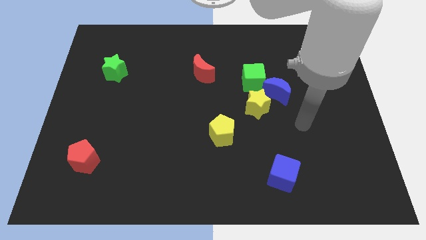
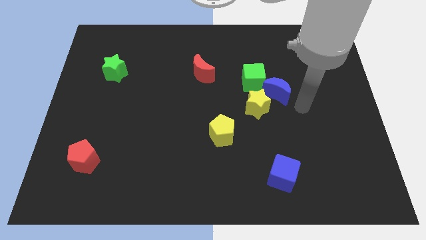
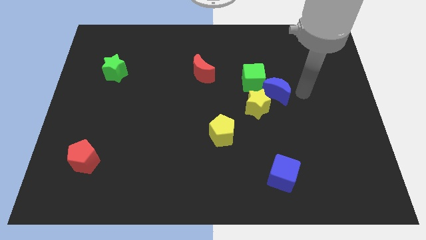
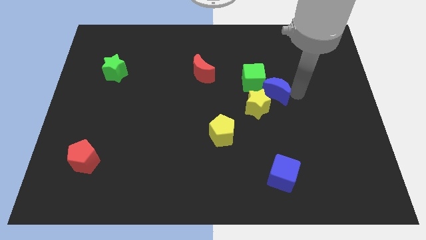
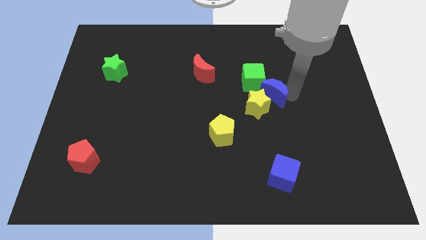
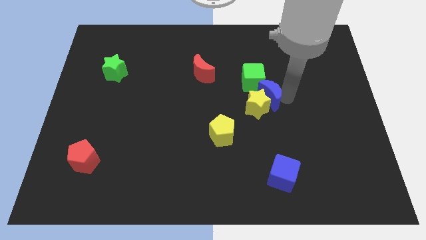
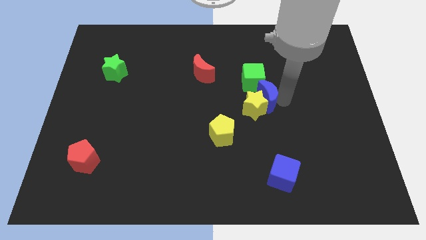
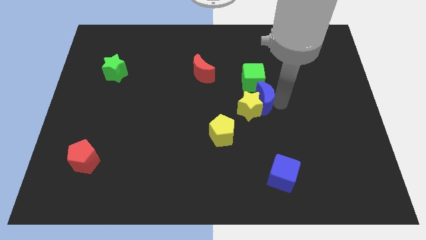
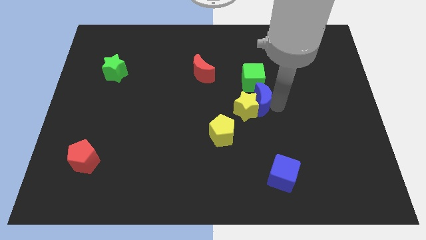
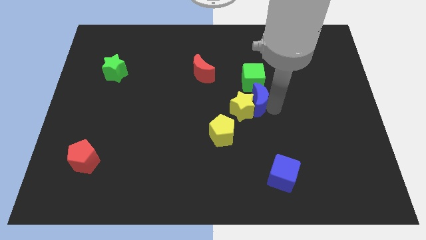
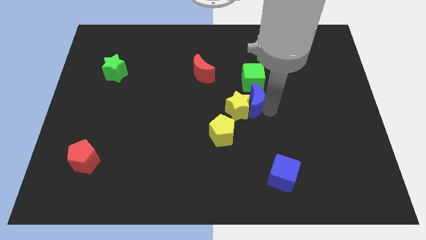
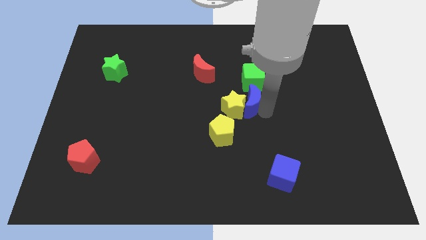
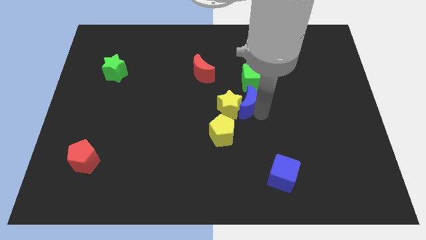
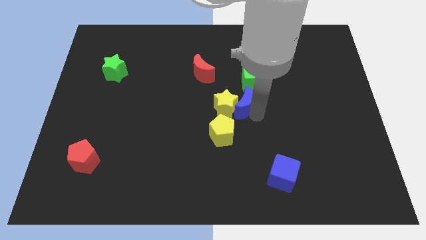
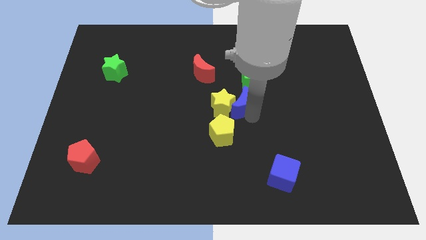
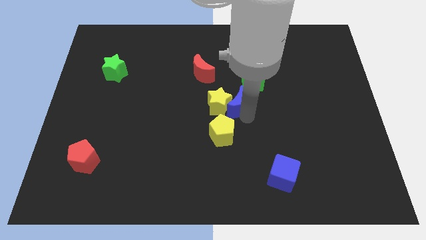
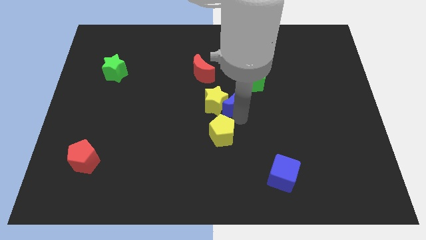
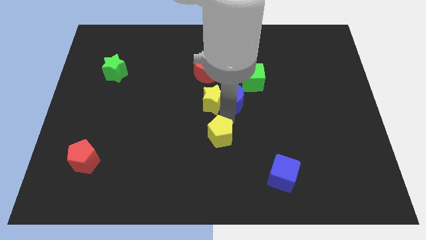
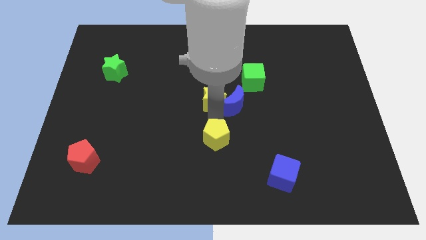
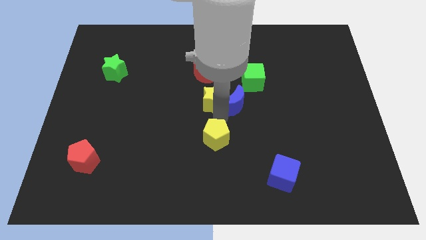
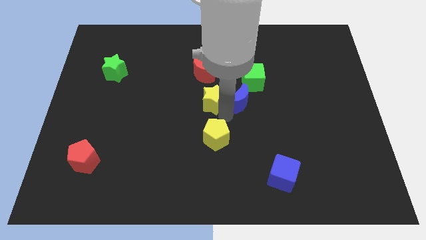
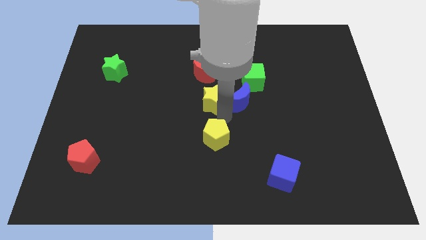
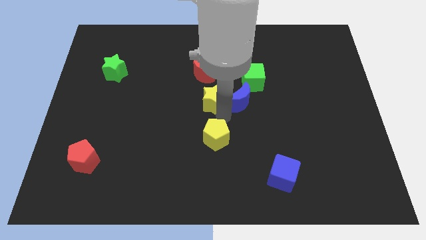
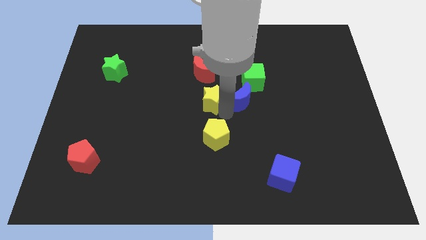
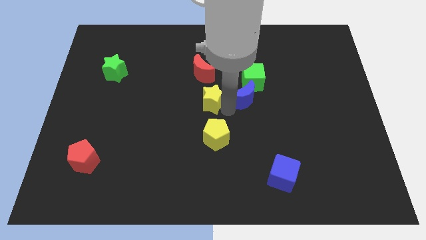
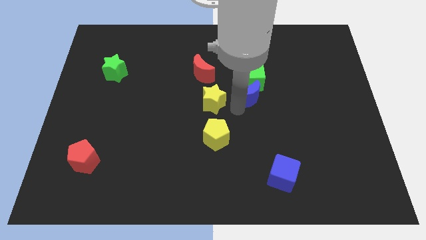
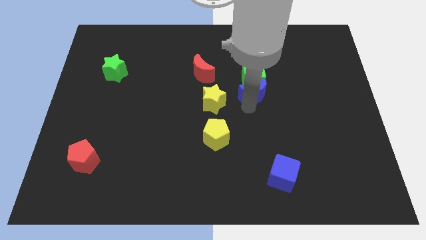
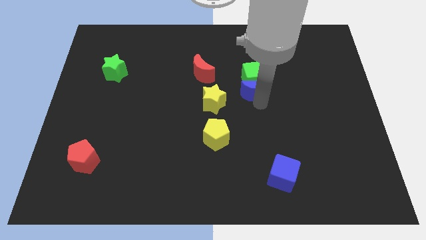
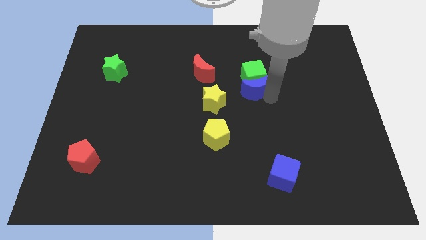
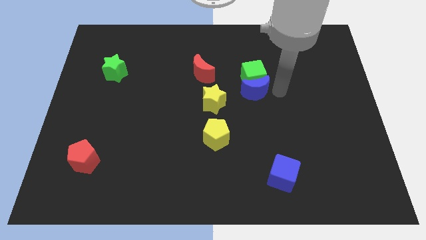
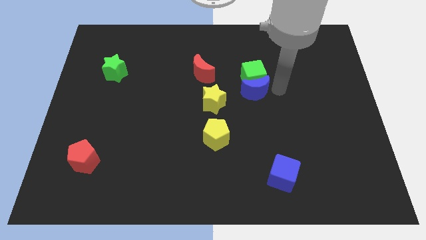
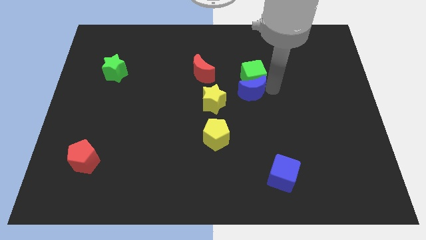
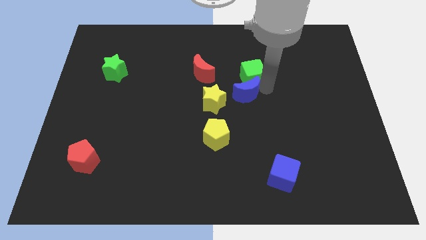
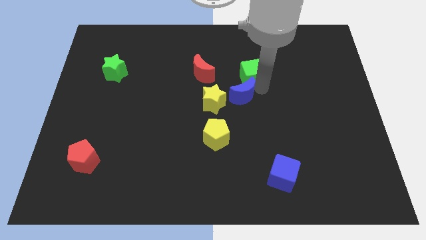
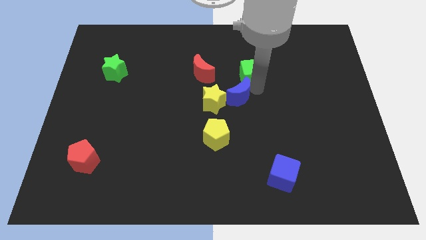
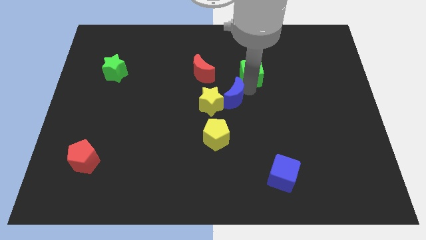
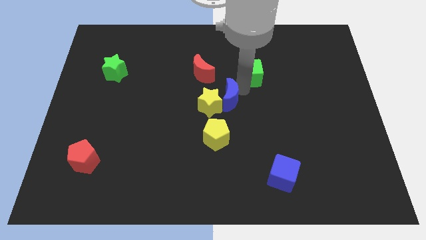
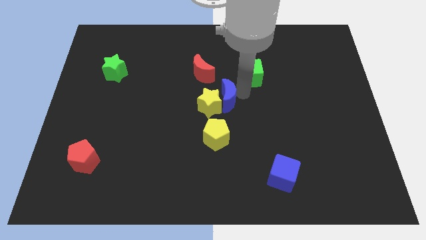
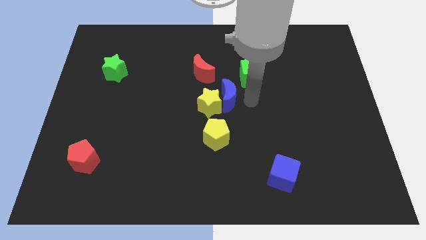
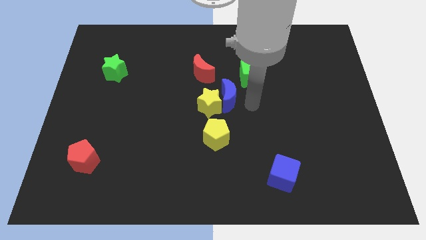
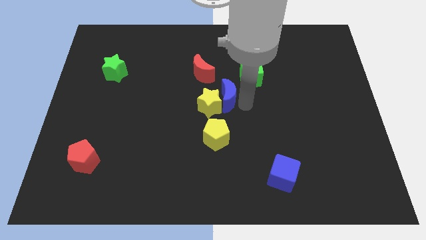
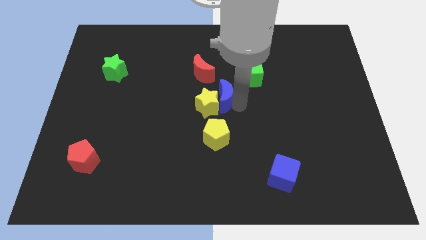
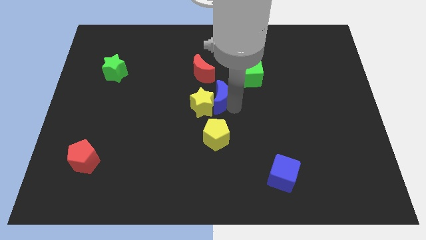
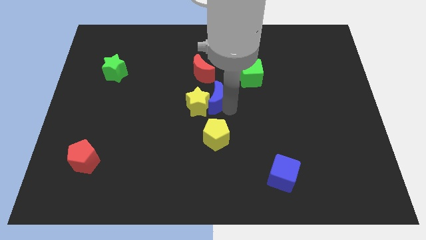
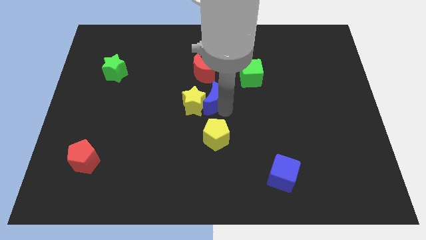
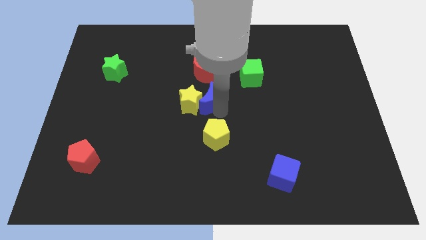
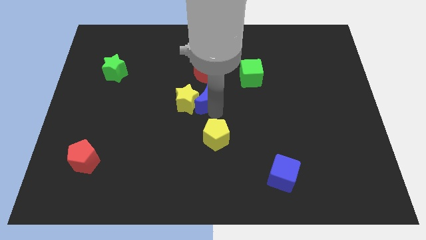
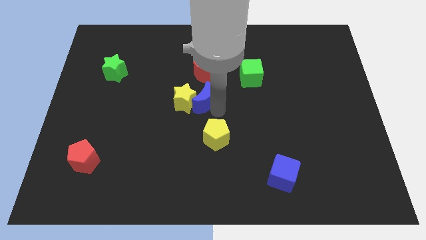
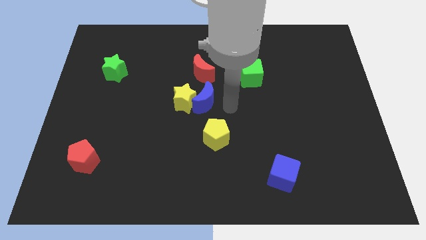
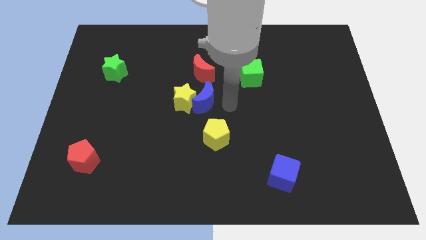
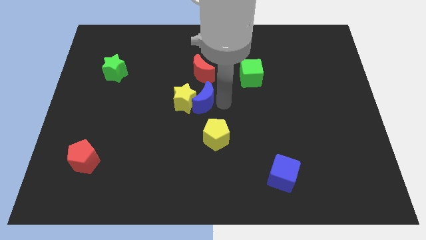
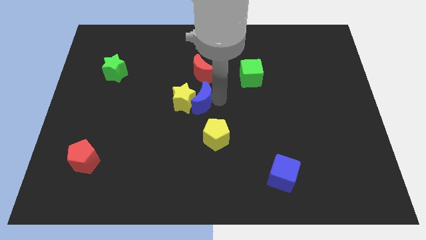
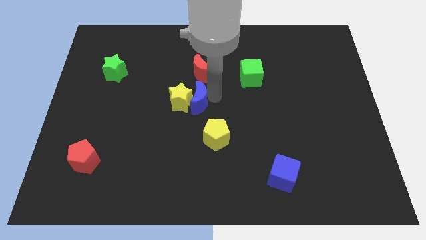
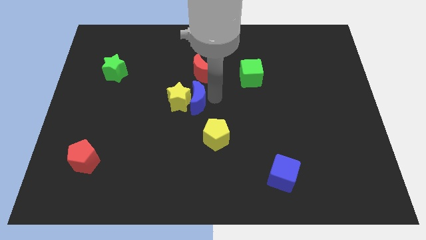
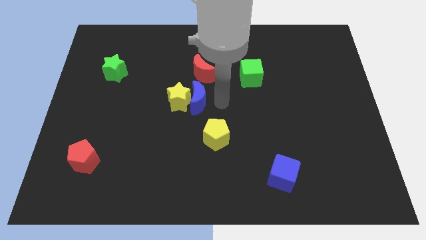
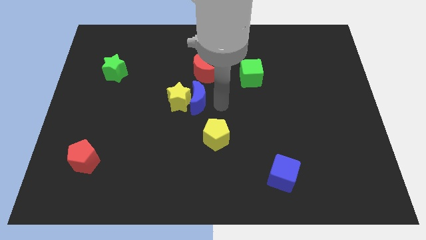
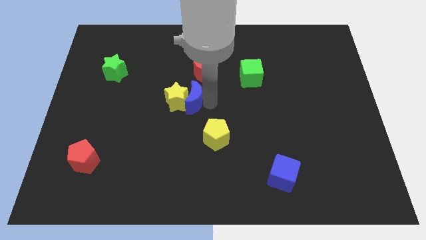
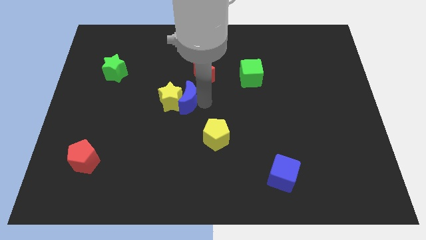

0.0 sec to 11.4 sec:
push the blue moon to the left

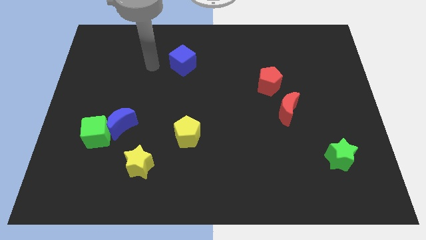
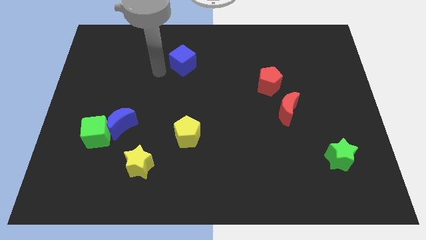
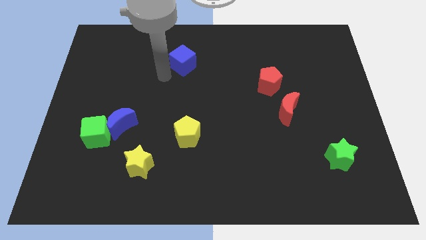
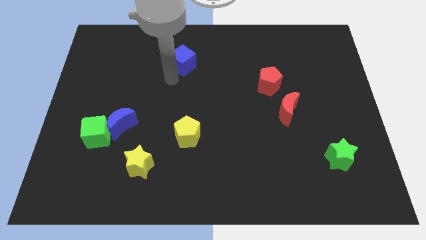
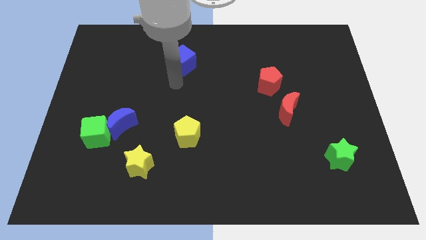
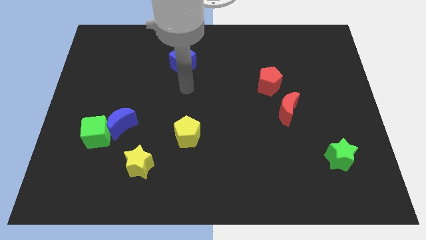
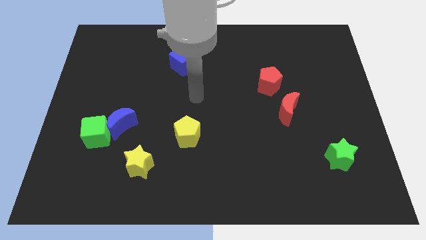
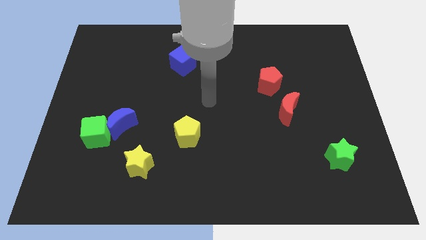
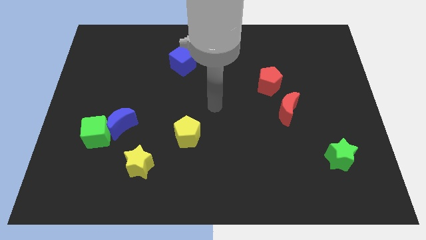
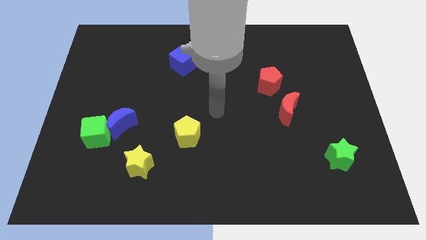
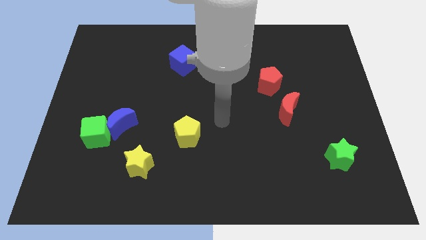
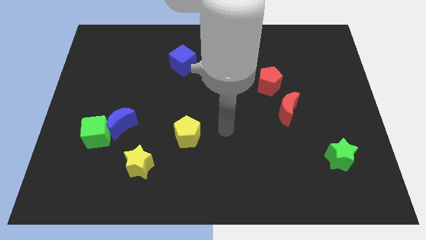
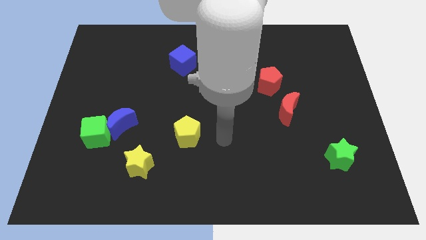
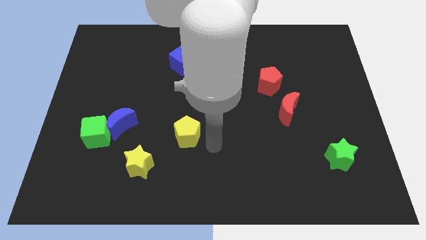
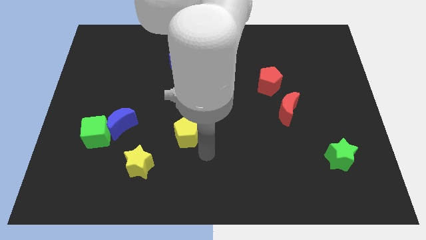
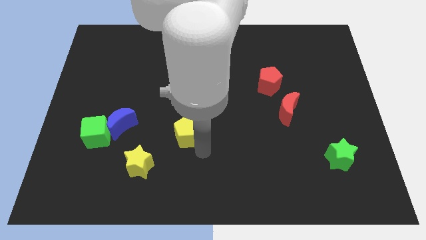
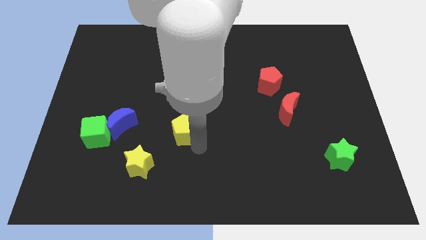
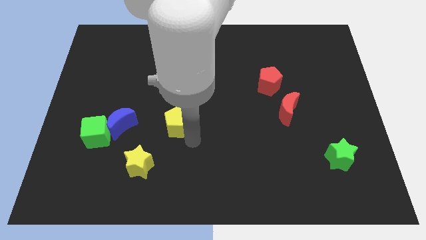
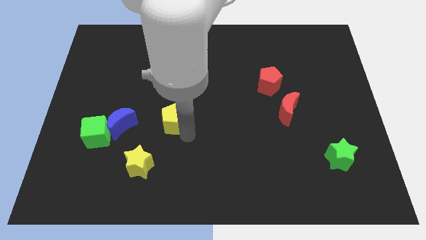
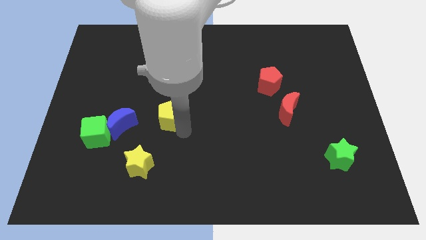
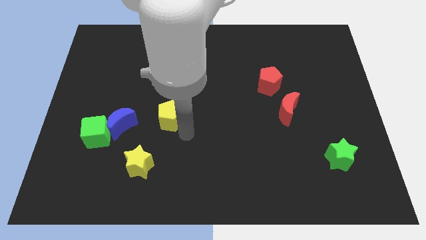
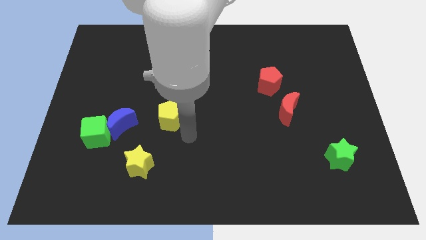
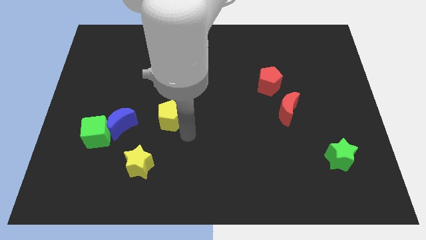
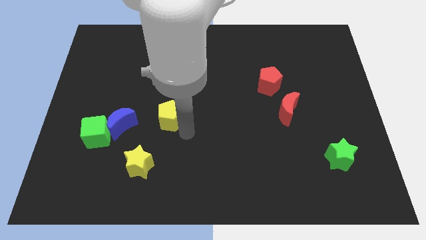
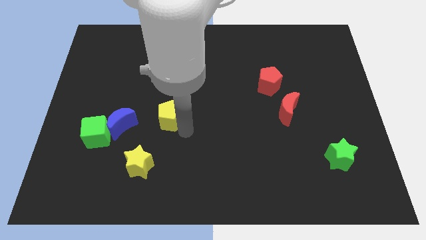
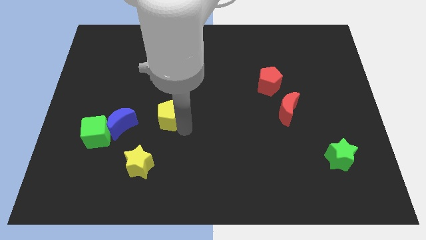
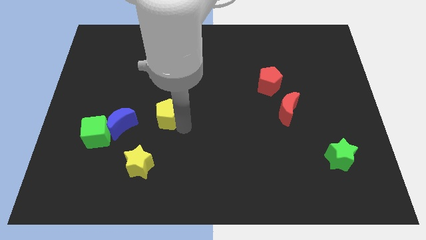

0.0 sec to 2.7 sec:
push the yellow pentagon upwards and left a little

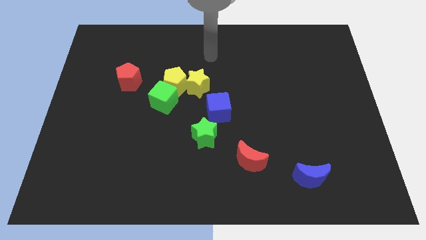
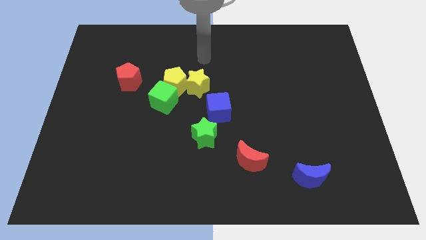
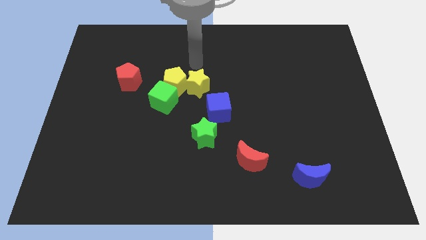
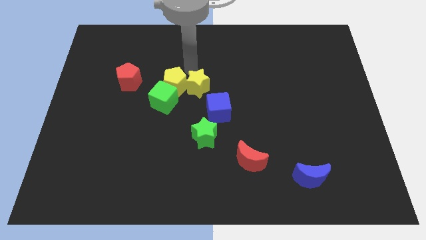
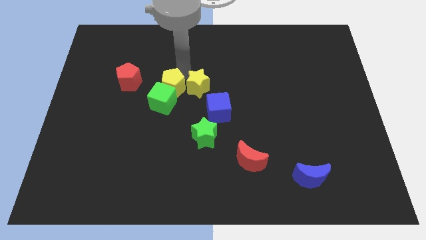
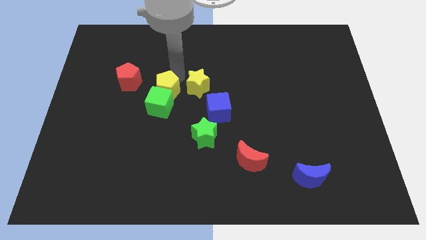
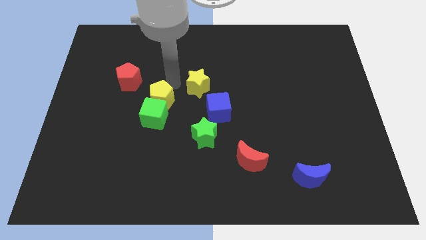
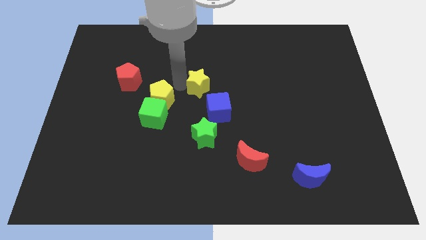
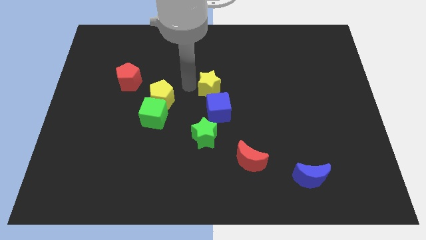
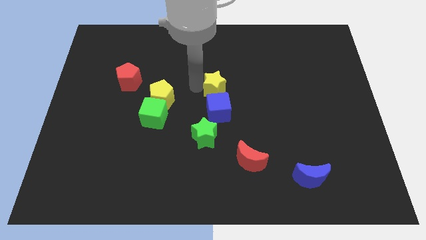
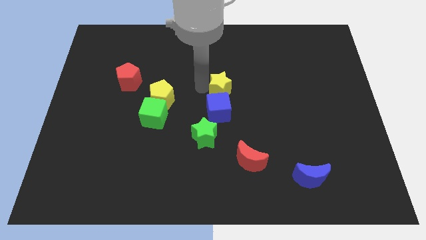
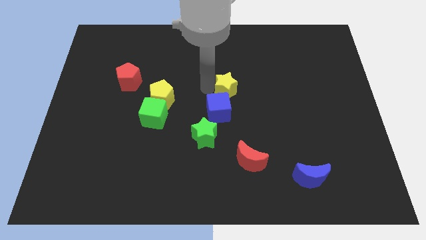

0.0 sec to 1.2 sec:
slightly slide the yellow star to the right
